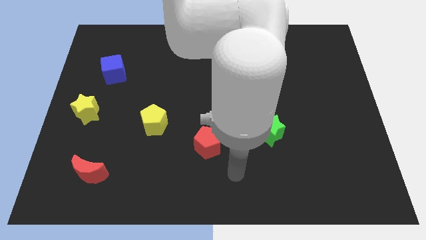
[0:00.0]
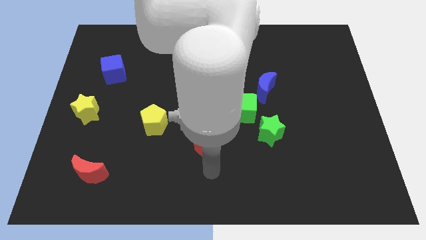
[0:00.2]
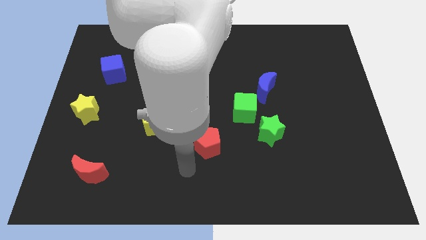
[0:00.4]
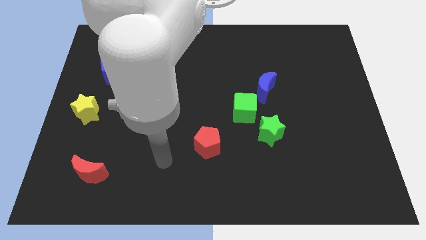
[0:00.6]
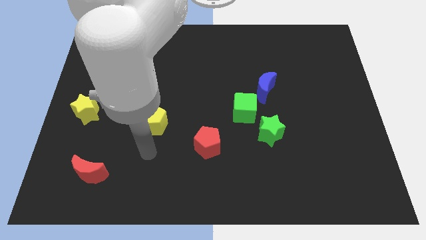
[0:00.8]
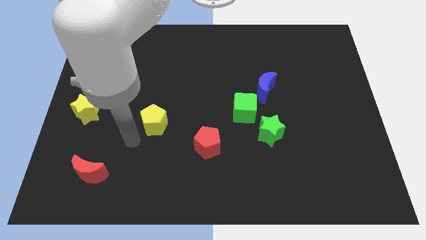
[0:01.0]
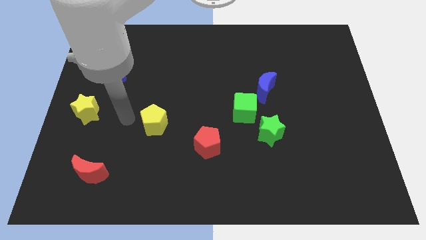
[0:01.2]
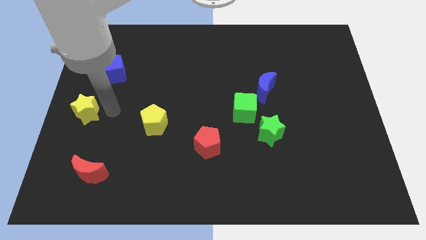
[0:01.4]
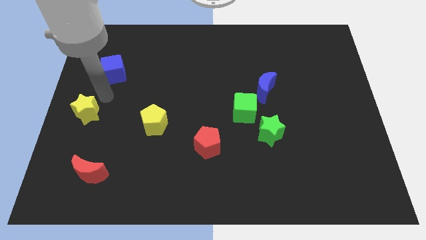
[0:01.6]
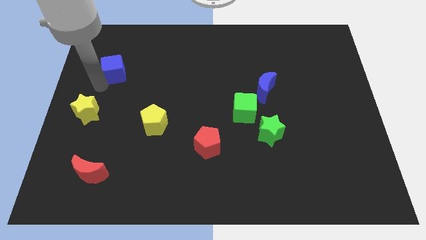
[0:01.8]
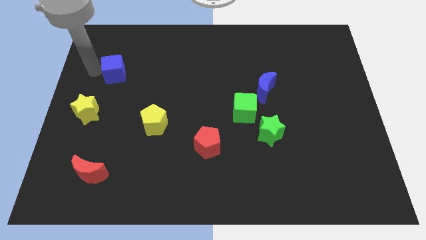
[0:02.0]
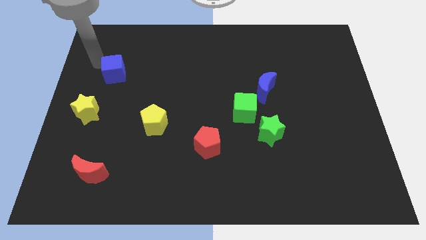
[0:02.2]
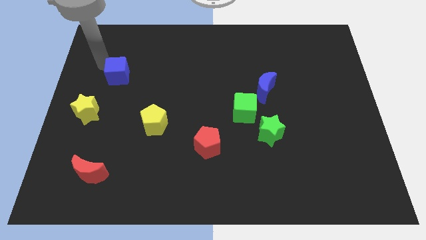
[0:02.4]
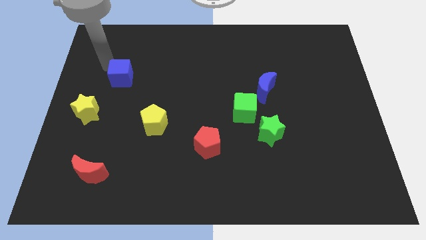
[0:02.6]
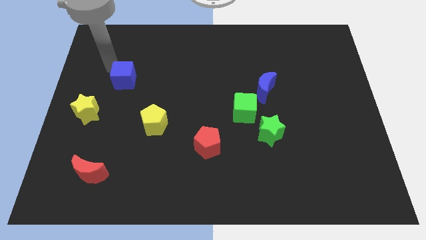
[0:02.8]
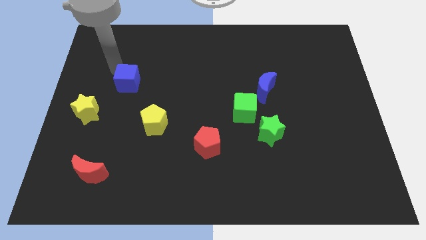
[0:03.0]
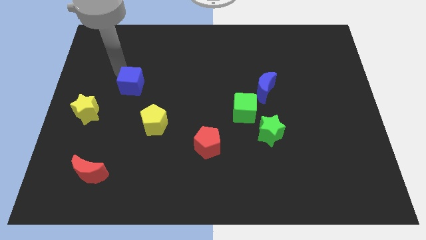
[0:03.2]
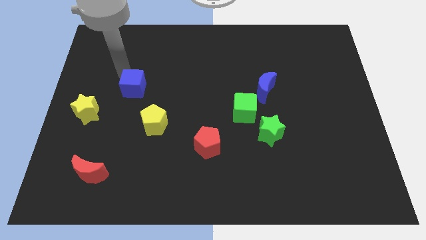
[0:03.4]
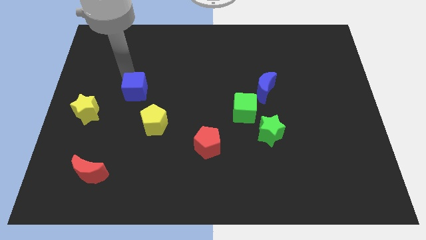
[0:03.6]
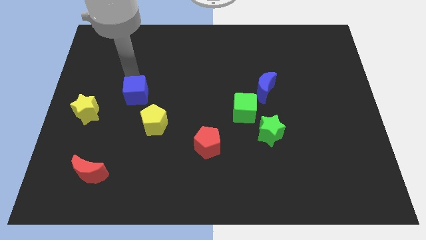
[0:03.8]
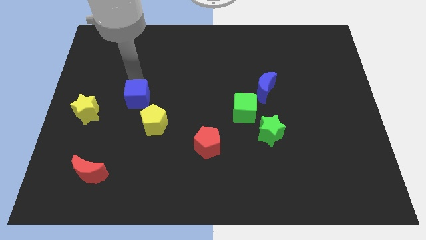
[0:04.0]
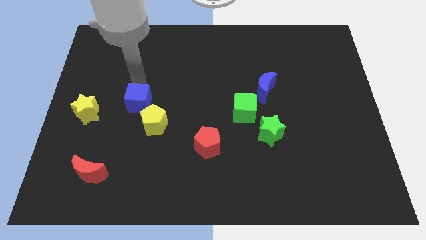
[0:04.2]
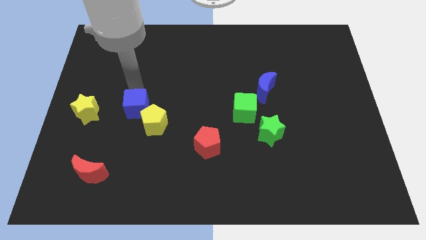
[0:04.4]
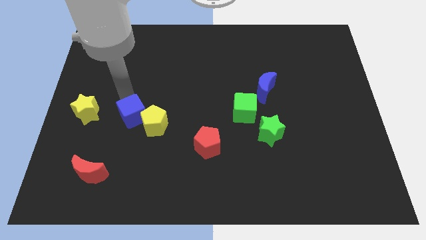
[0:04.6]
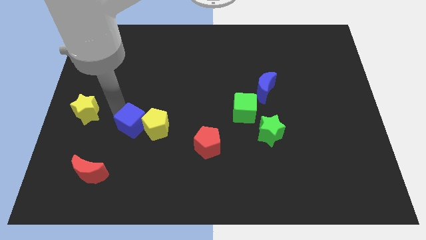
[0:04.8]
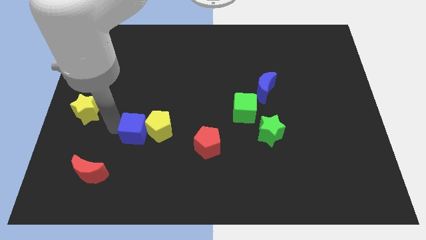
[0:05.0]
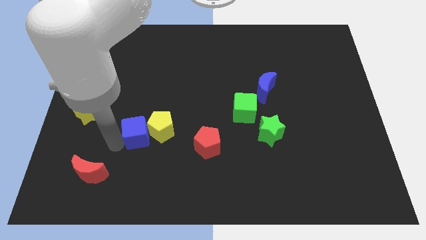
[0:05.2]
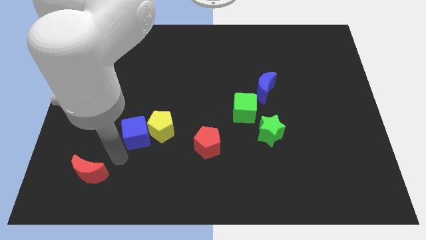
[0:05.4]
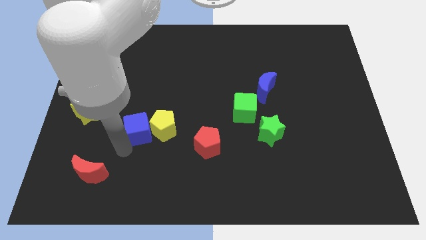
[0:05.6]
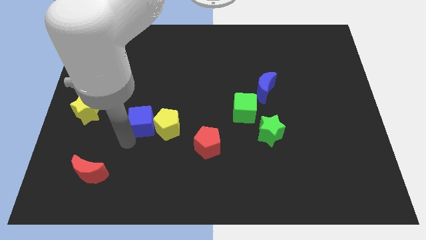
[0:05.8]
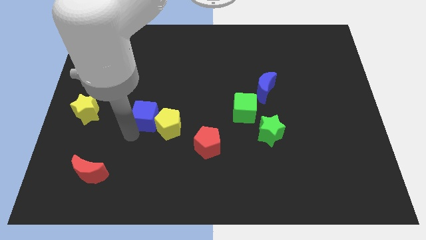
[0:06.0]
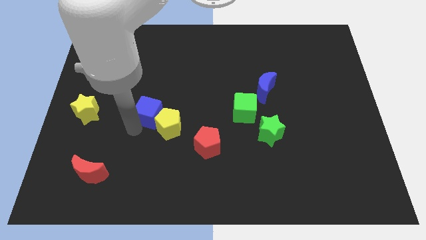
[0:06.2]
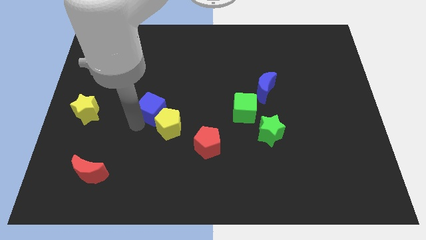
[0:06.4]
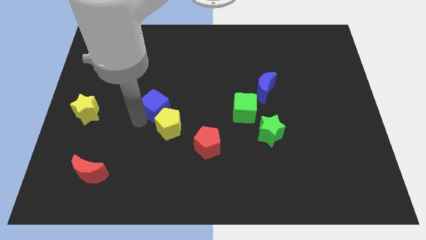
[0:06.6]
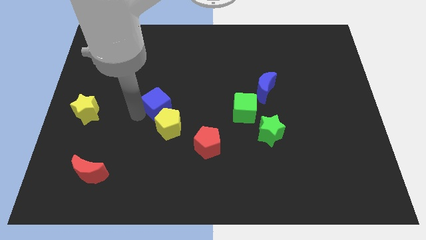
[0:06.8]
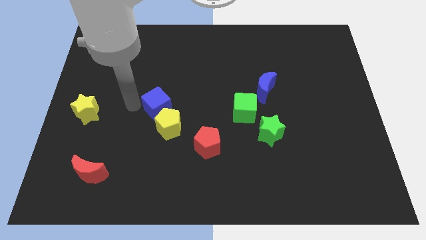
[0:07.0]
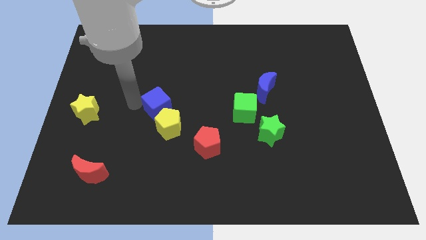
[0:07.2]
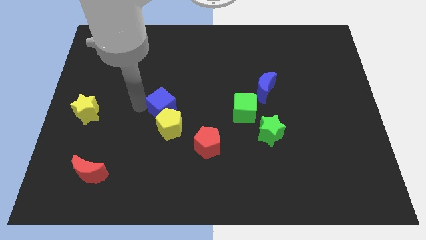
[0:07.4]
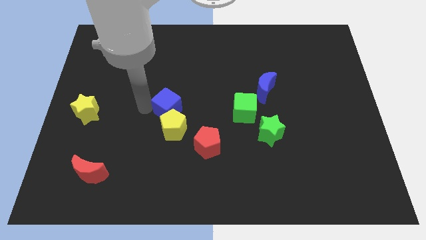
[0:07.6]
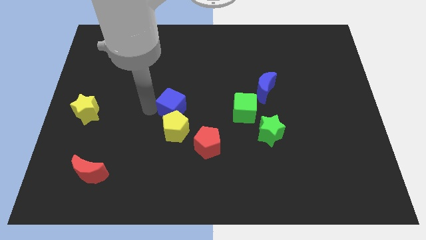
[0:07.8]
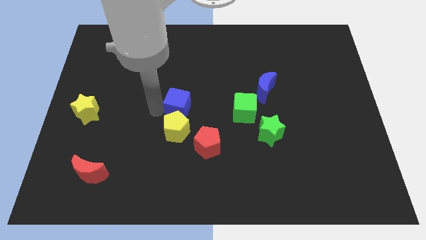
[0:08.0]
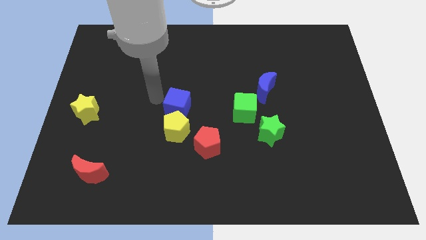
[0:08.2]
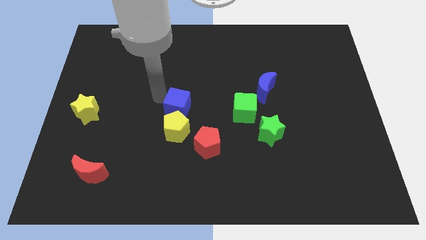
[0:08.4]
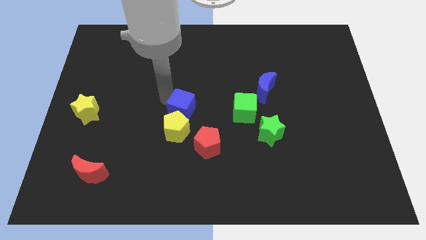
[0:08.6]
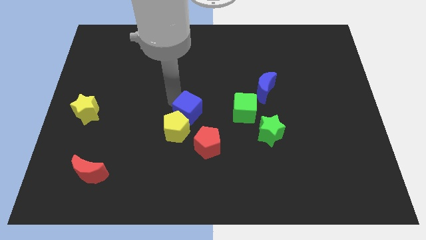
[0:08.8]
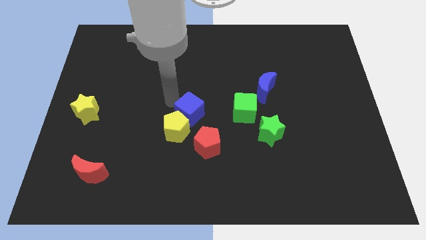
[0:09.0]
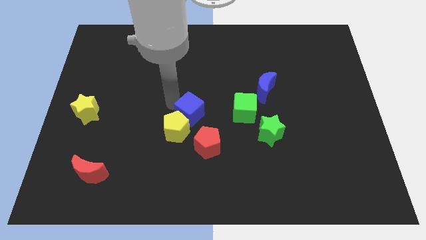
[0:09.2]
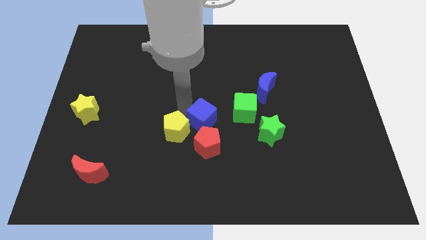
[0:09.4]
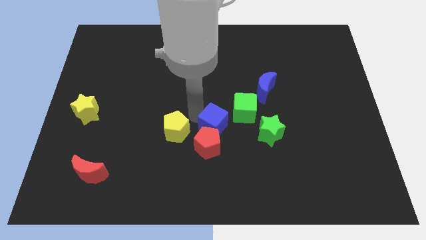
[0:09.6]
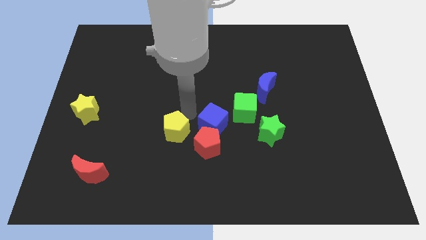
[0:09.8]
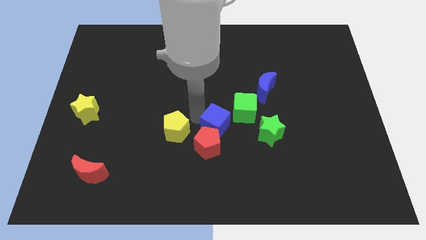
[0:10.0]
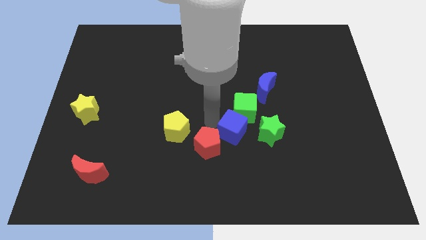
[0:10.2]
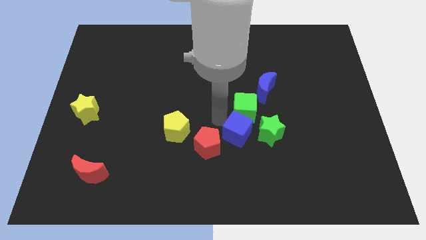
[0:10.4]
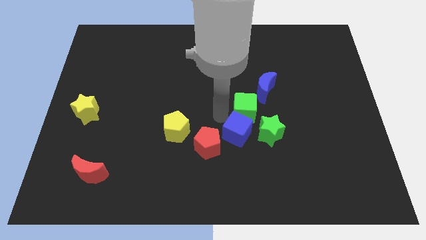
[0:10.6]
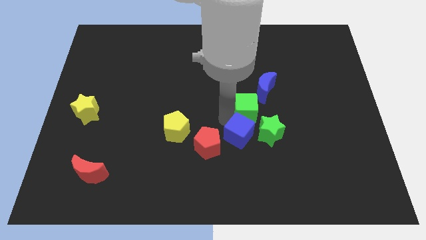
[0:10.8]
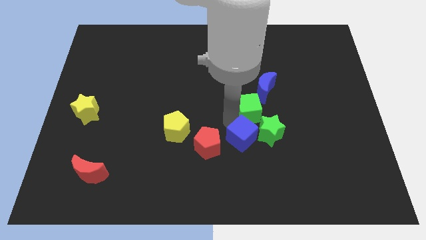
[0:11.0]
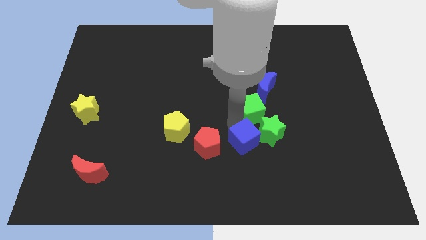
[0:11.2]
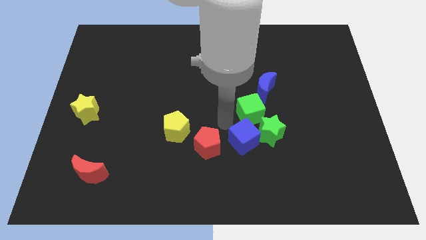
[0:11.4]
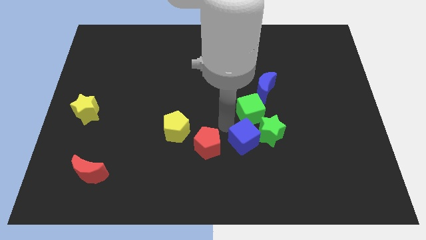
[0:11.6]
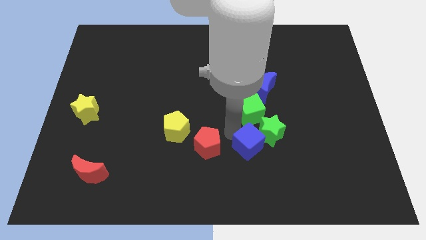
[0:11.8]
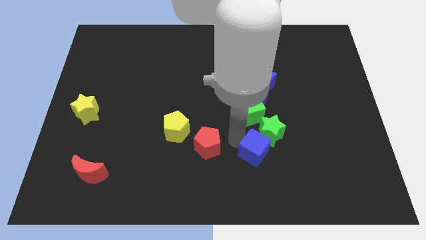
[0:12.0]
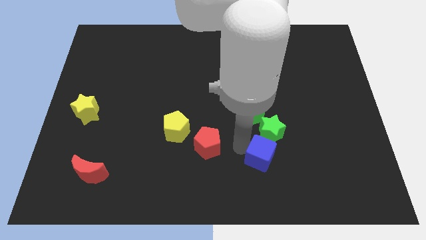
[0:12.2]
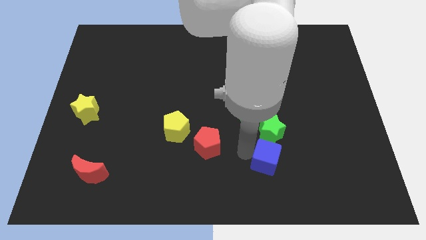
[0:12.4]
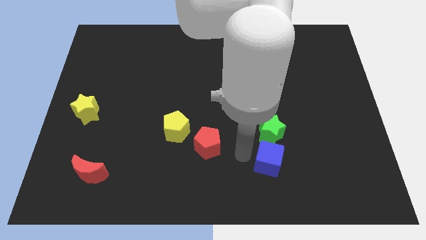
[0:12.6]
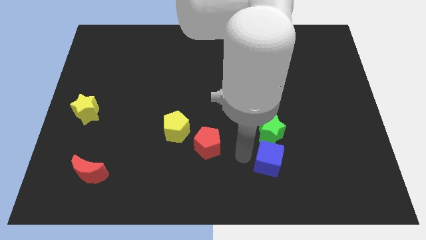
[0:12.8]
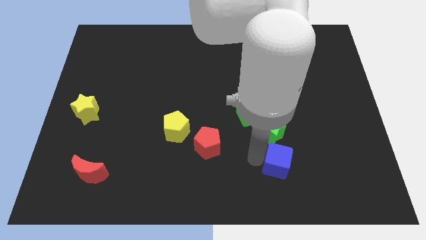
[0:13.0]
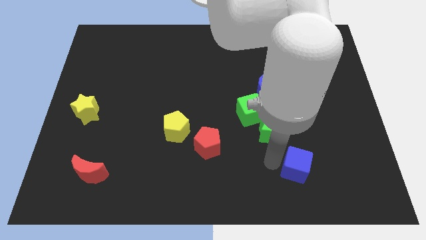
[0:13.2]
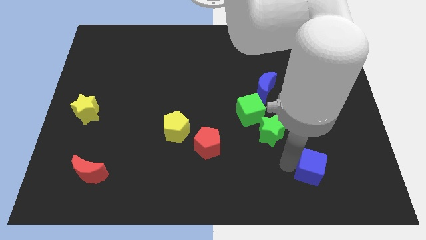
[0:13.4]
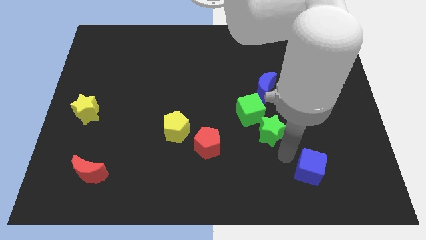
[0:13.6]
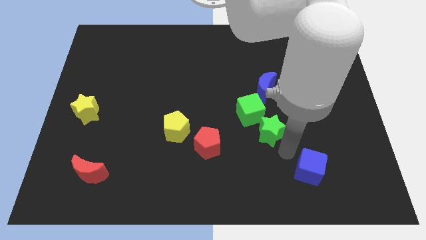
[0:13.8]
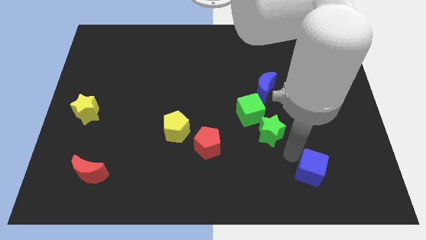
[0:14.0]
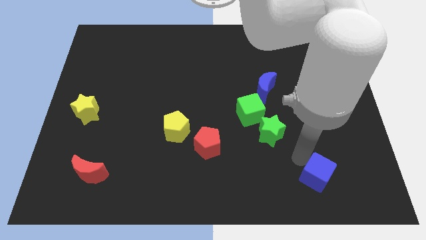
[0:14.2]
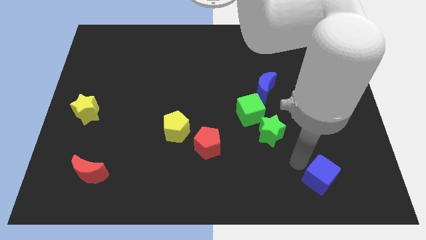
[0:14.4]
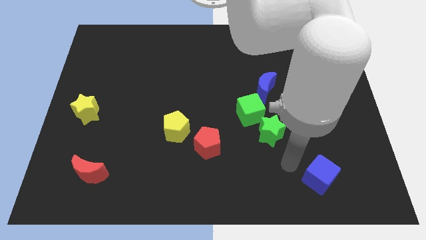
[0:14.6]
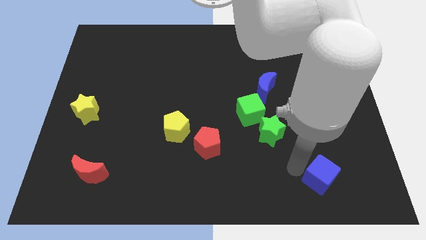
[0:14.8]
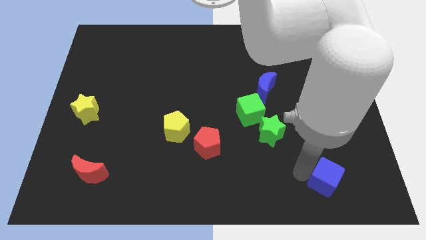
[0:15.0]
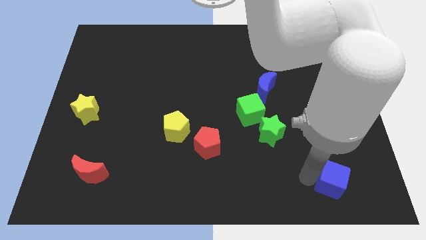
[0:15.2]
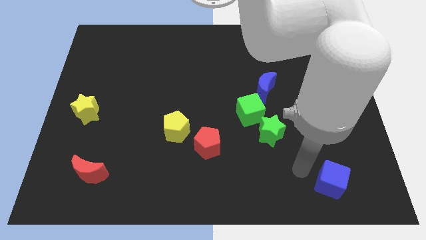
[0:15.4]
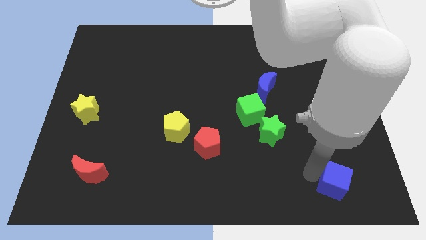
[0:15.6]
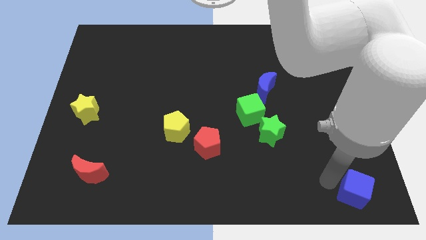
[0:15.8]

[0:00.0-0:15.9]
move the blue cube to the lower right corner
